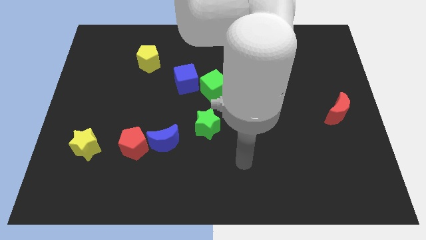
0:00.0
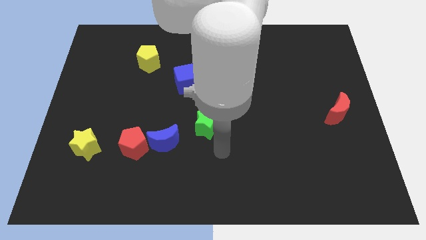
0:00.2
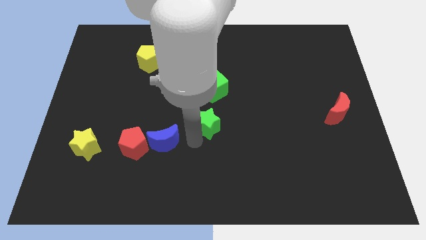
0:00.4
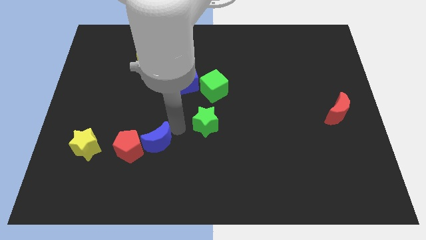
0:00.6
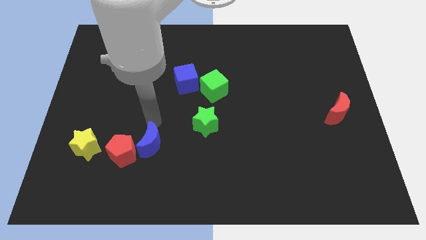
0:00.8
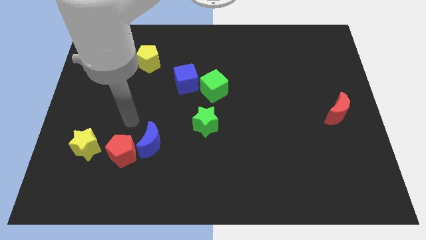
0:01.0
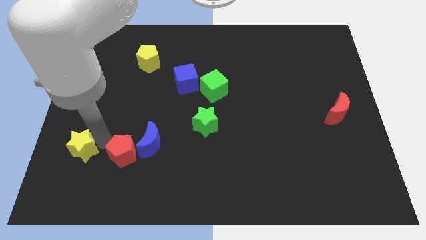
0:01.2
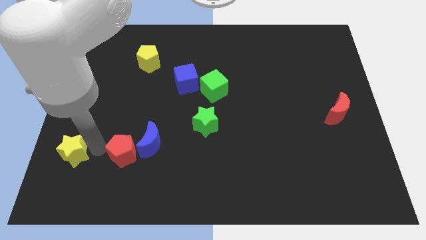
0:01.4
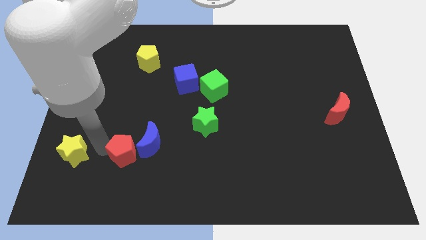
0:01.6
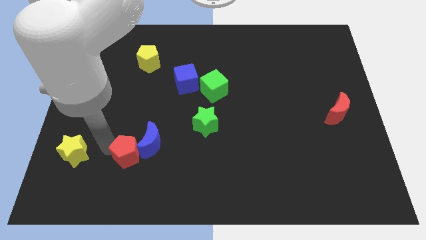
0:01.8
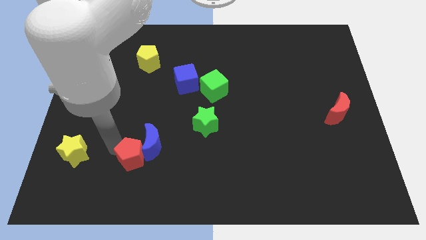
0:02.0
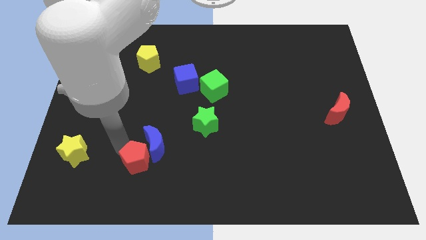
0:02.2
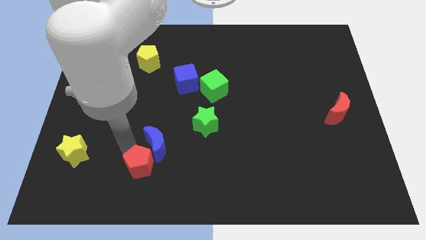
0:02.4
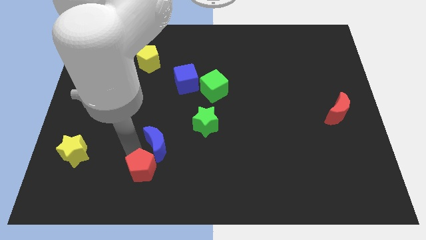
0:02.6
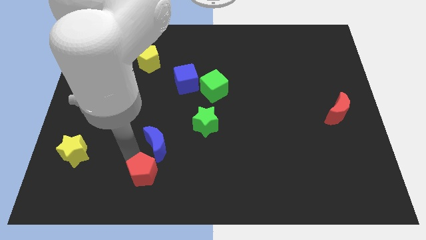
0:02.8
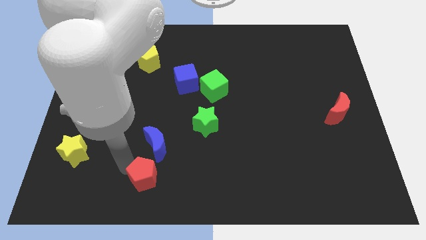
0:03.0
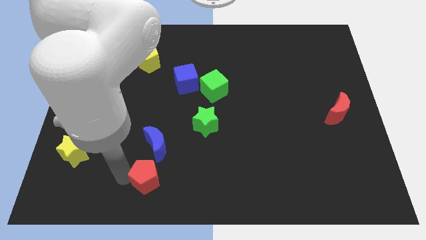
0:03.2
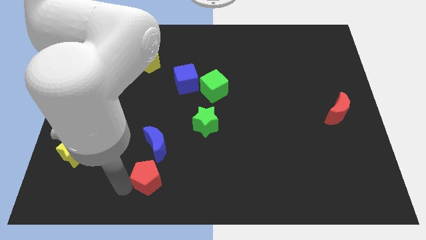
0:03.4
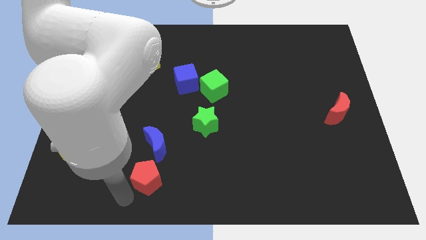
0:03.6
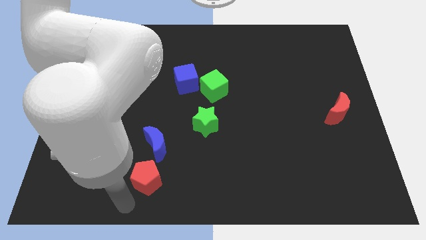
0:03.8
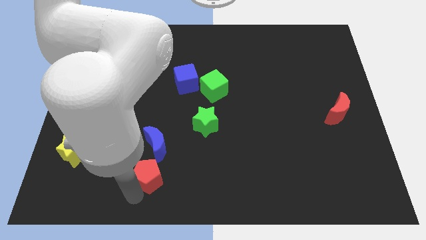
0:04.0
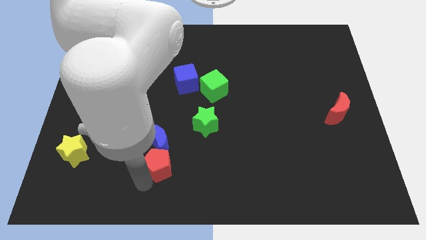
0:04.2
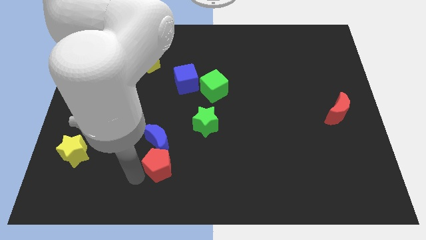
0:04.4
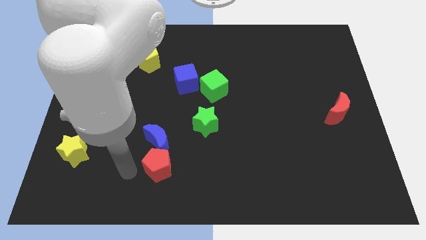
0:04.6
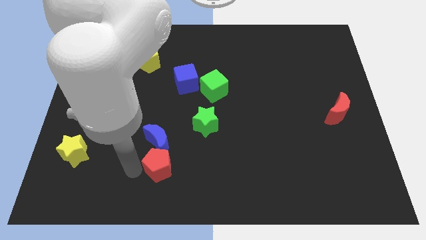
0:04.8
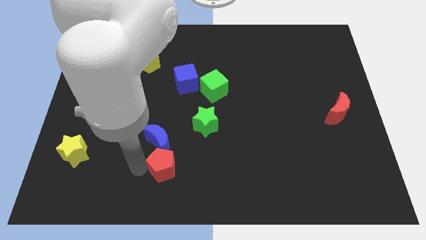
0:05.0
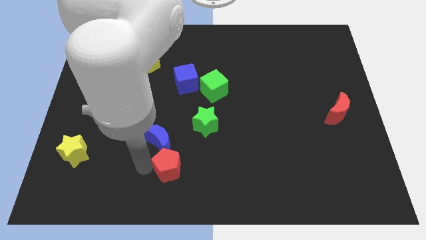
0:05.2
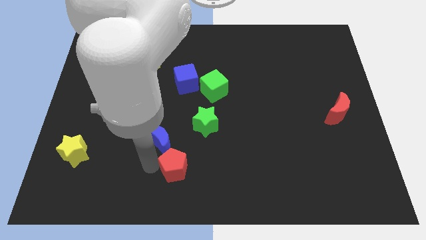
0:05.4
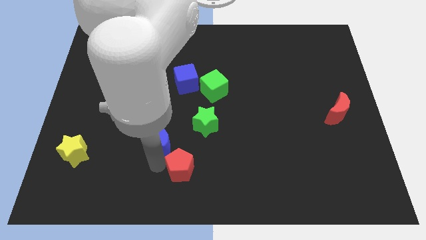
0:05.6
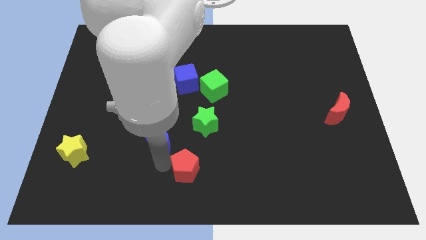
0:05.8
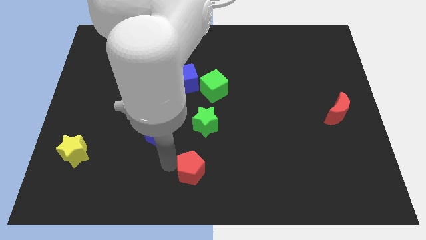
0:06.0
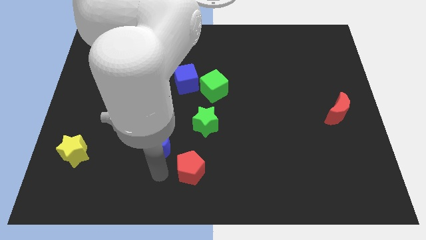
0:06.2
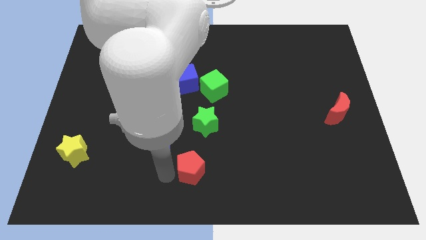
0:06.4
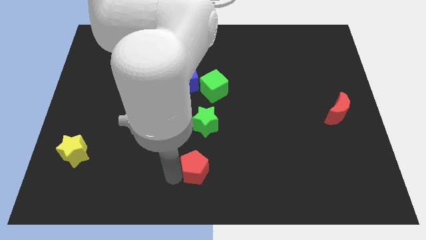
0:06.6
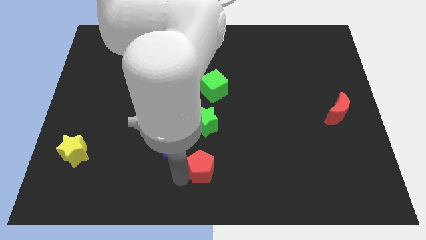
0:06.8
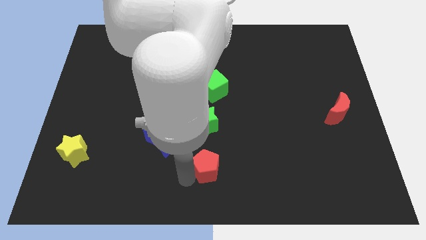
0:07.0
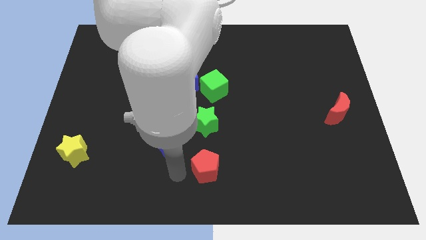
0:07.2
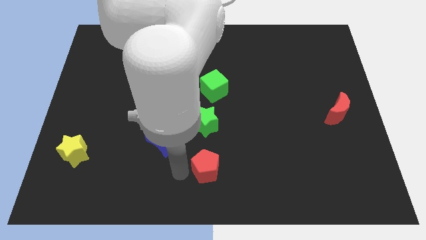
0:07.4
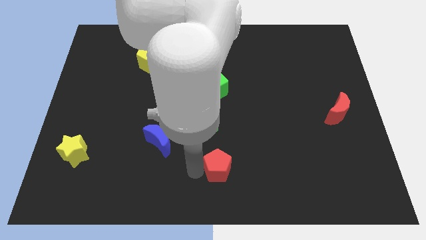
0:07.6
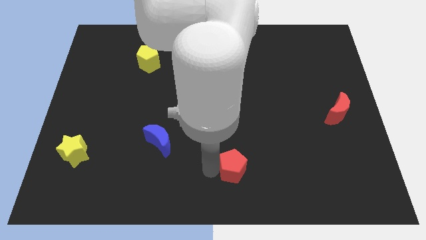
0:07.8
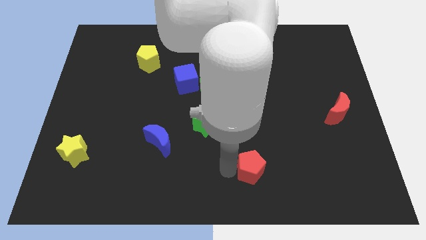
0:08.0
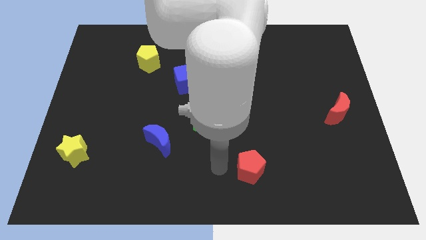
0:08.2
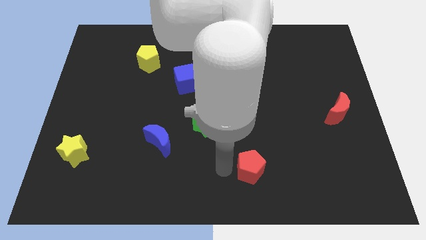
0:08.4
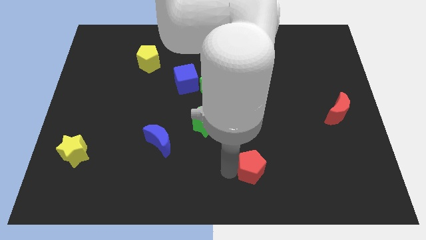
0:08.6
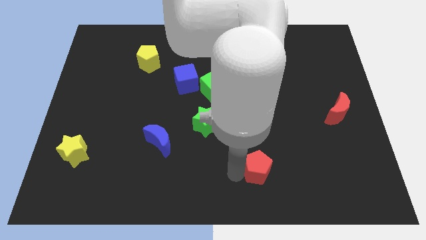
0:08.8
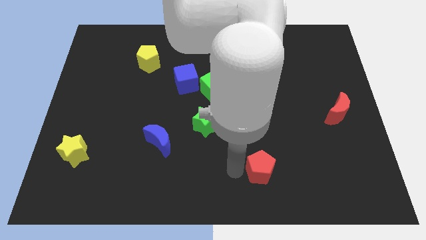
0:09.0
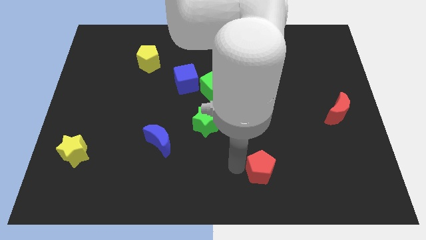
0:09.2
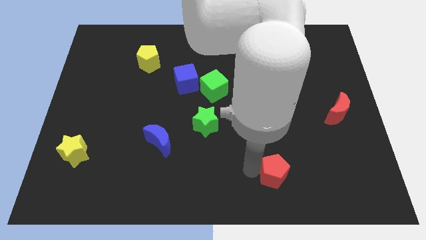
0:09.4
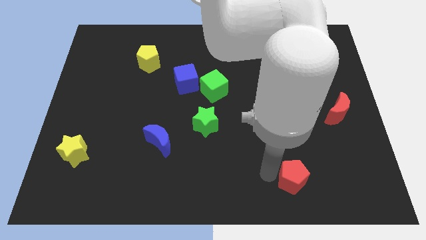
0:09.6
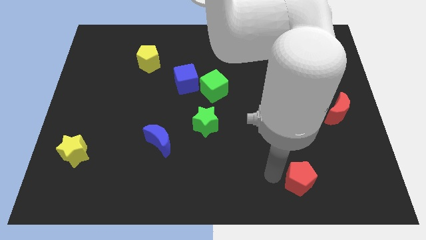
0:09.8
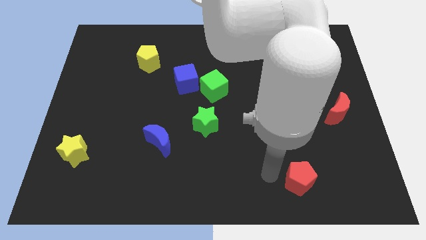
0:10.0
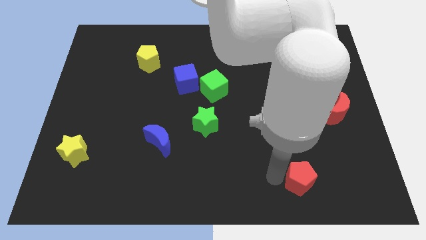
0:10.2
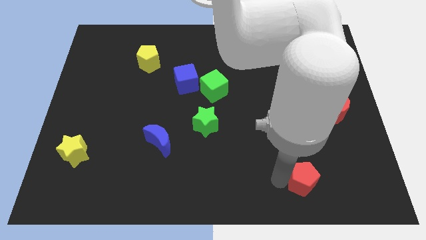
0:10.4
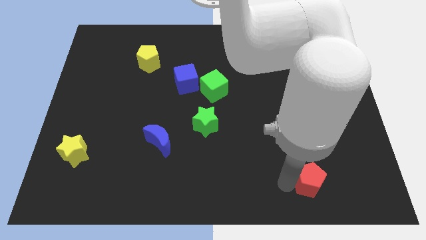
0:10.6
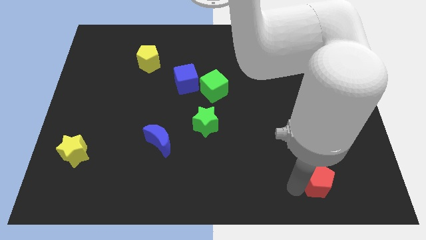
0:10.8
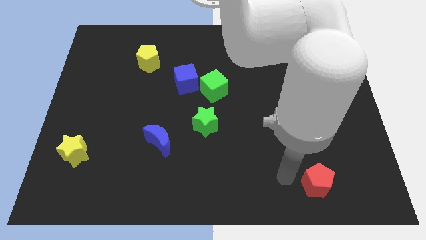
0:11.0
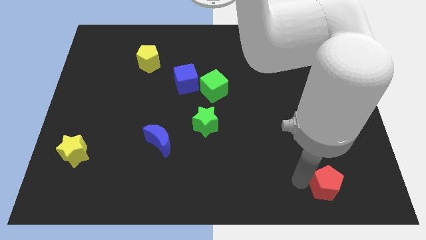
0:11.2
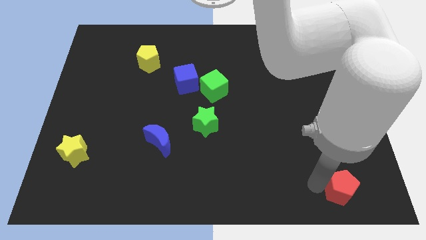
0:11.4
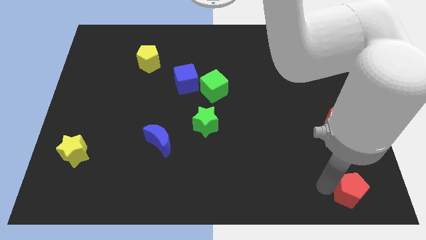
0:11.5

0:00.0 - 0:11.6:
move the red pentagon to the bottom right

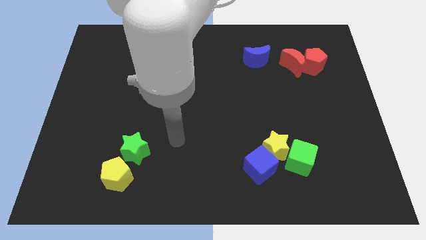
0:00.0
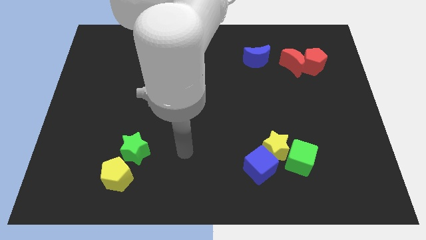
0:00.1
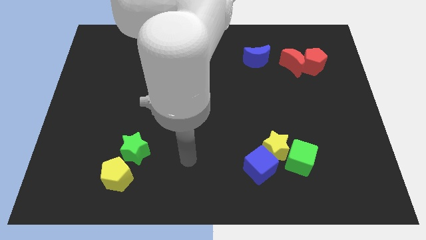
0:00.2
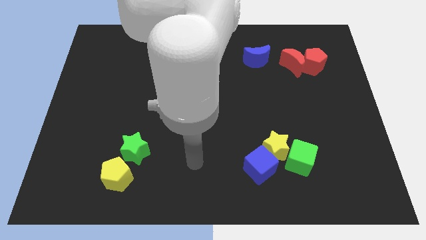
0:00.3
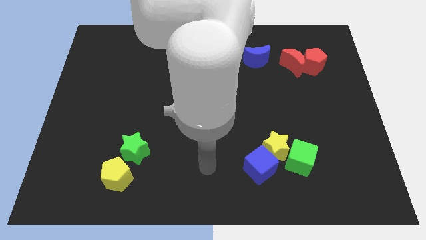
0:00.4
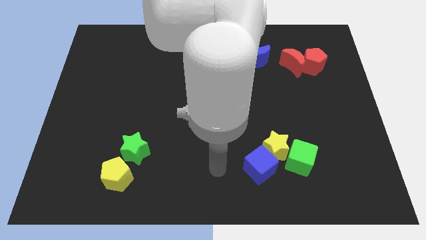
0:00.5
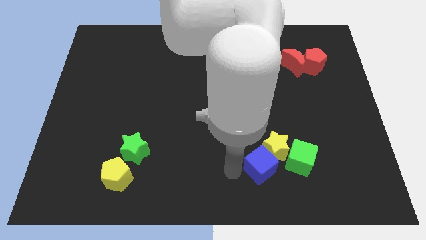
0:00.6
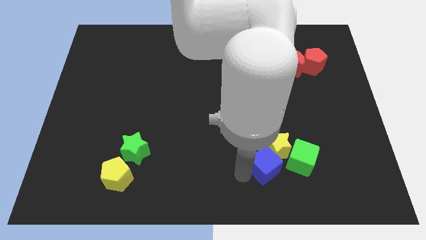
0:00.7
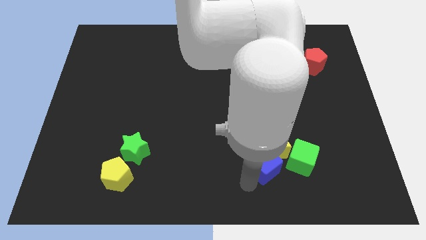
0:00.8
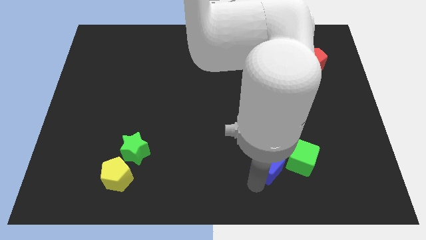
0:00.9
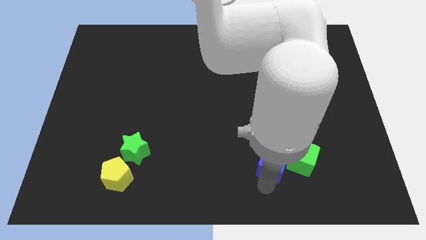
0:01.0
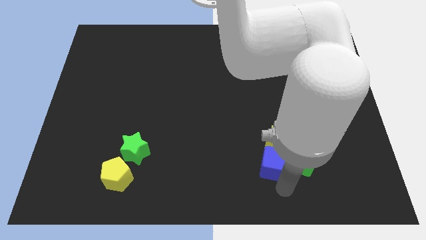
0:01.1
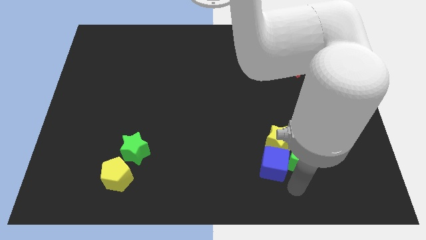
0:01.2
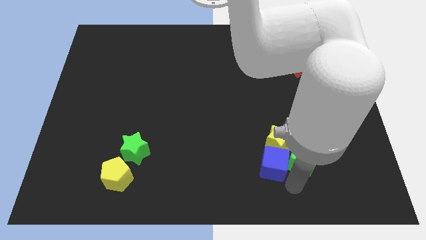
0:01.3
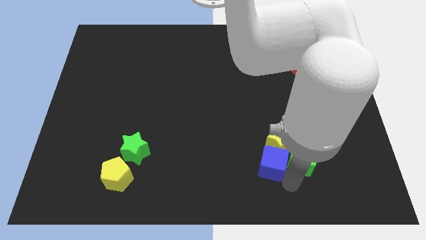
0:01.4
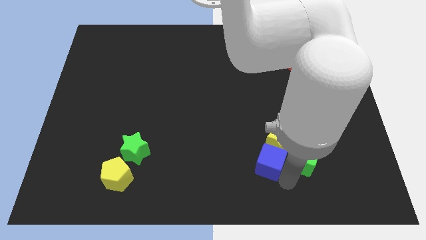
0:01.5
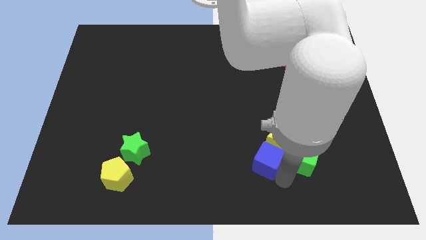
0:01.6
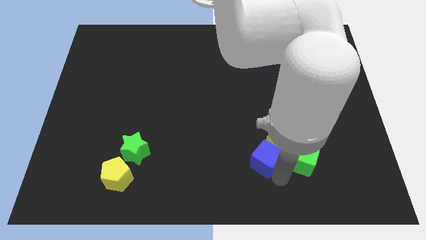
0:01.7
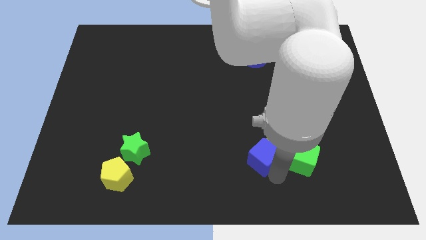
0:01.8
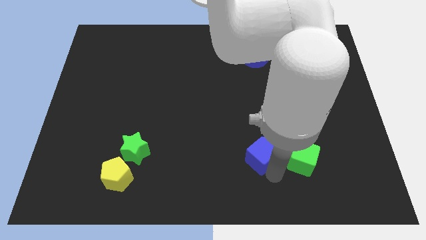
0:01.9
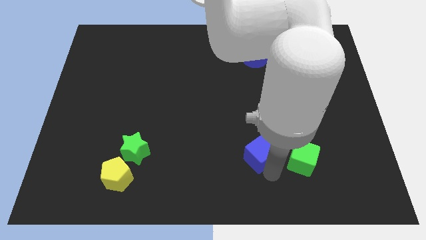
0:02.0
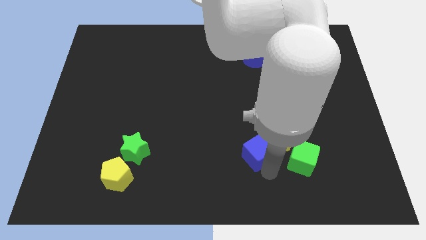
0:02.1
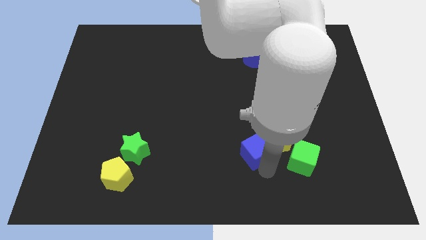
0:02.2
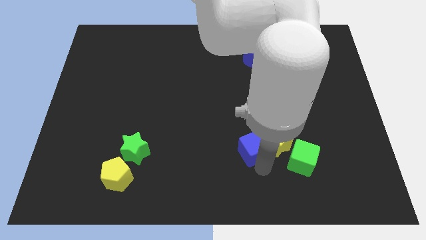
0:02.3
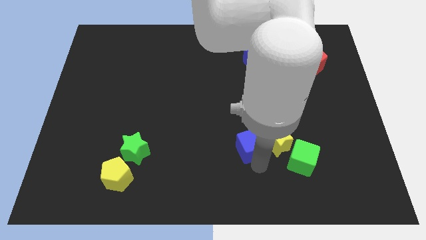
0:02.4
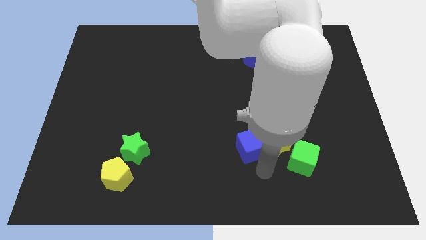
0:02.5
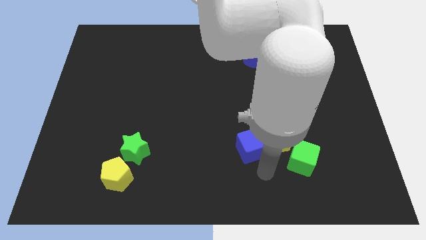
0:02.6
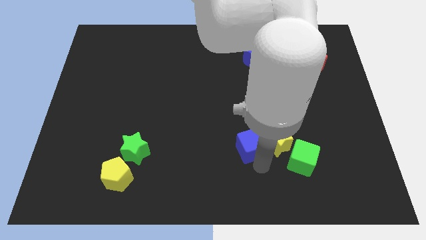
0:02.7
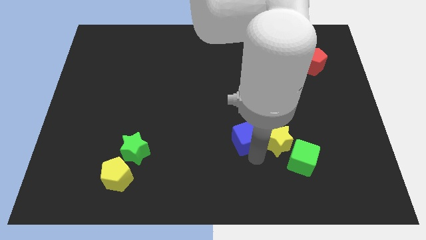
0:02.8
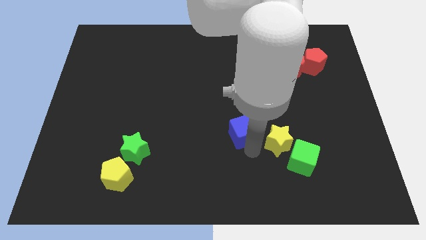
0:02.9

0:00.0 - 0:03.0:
put the blue cube to the center of the board
